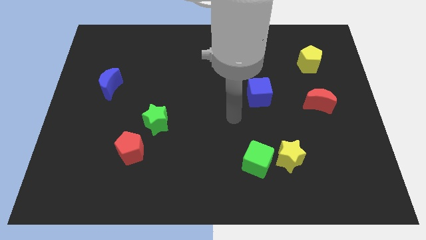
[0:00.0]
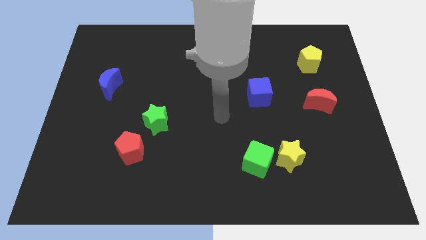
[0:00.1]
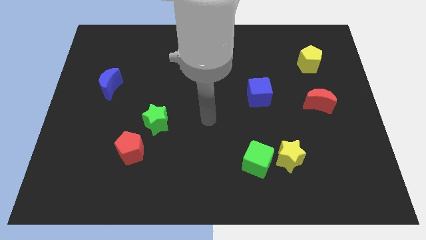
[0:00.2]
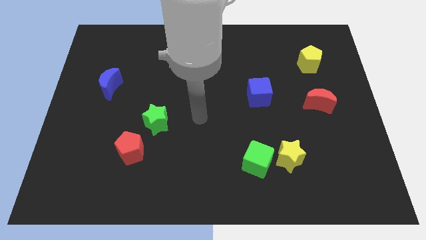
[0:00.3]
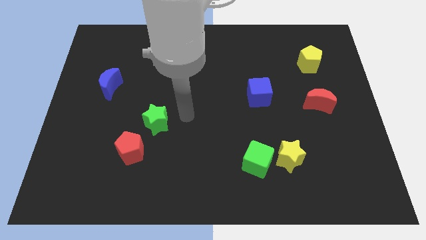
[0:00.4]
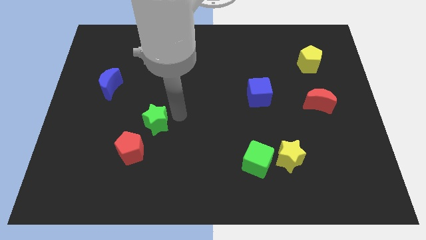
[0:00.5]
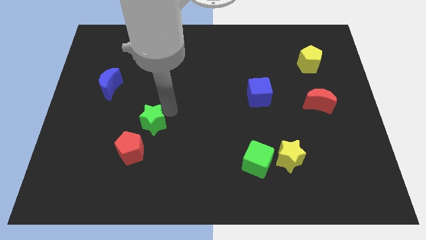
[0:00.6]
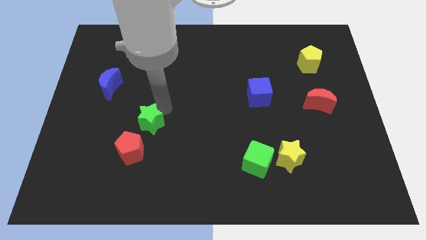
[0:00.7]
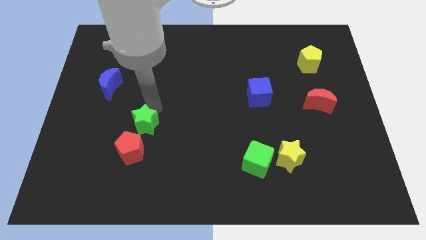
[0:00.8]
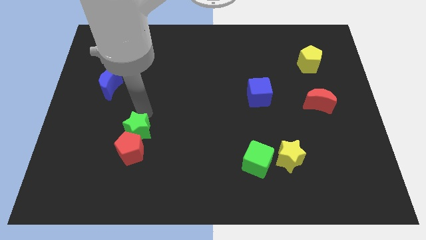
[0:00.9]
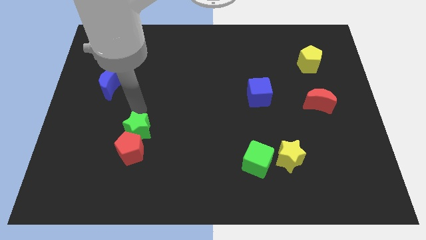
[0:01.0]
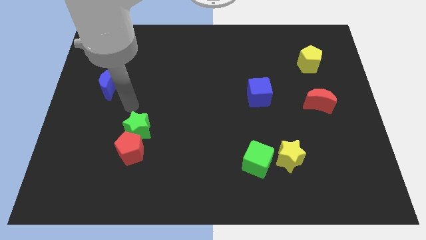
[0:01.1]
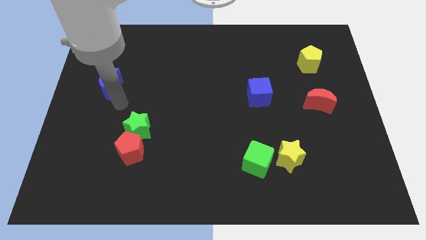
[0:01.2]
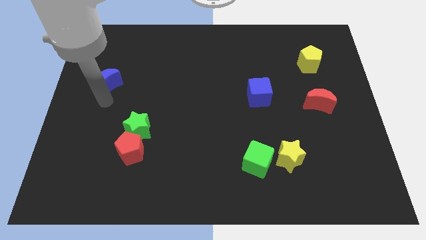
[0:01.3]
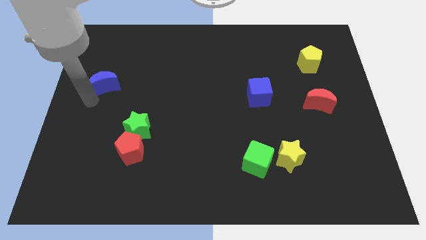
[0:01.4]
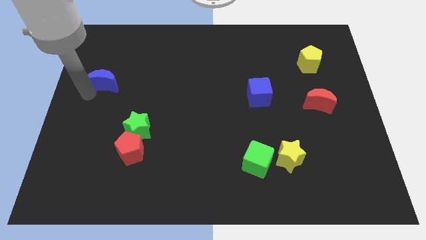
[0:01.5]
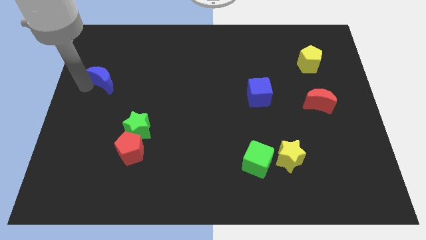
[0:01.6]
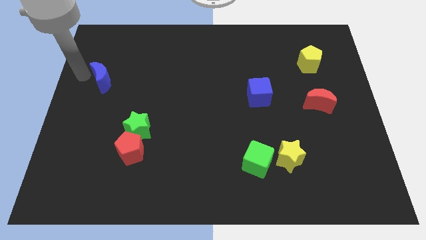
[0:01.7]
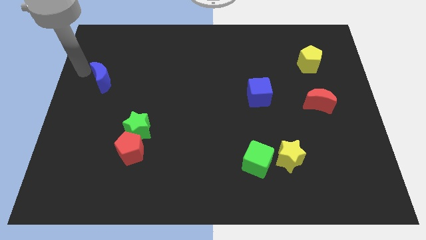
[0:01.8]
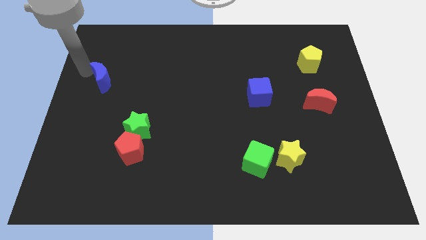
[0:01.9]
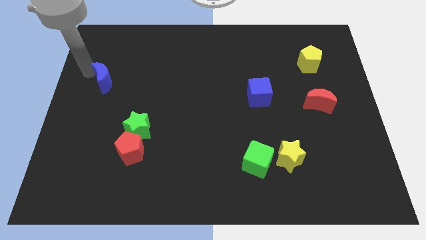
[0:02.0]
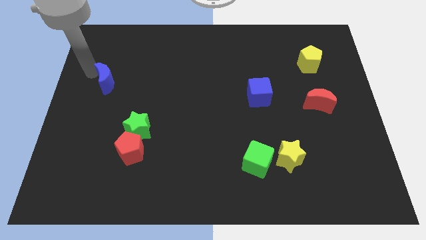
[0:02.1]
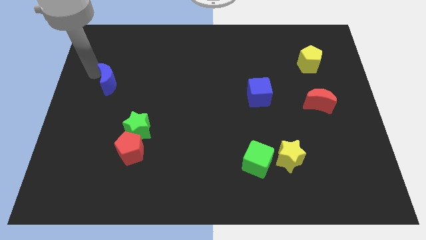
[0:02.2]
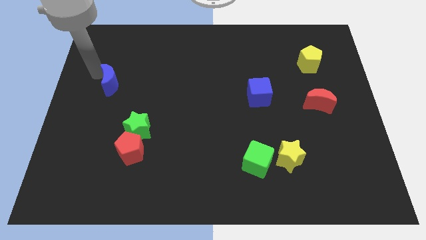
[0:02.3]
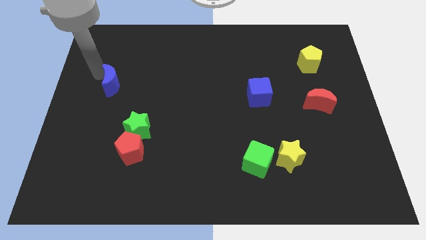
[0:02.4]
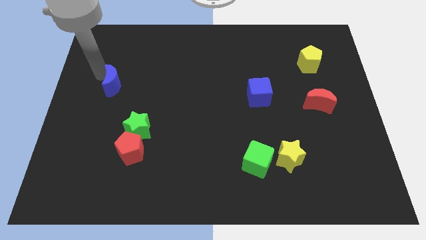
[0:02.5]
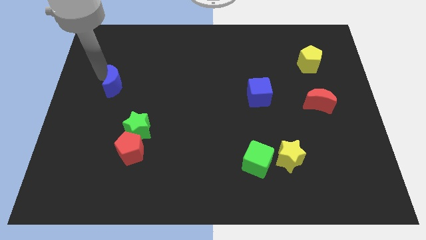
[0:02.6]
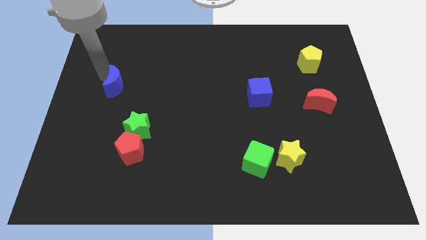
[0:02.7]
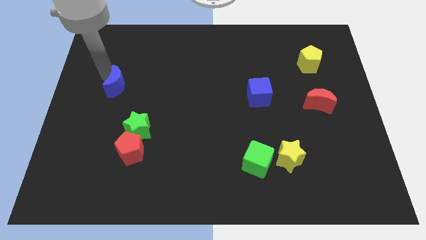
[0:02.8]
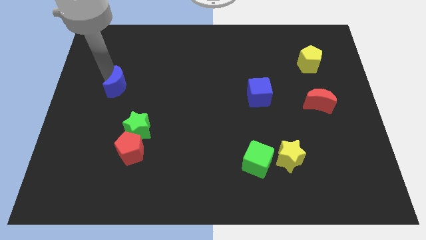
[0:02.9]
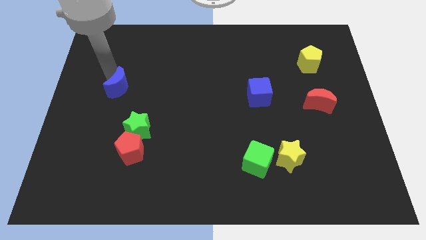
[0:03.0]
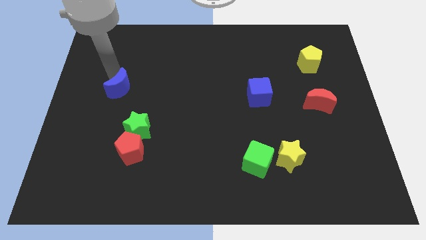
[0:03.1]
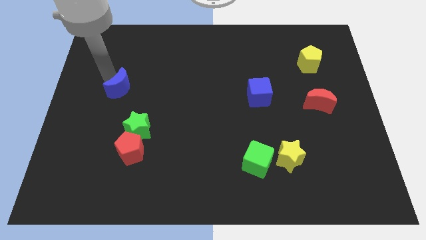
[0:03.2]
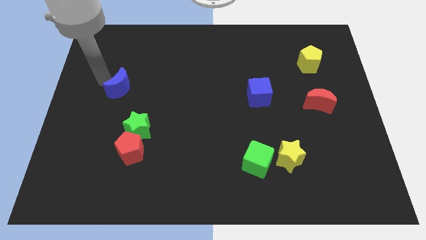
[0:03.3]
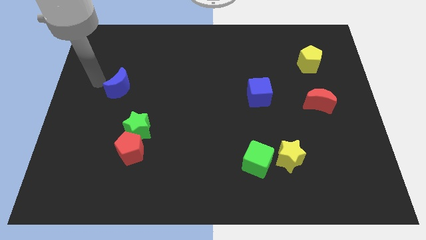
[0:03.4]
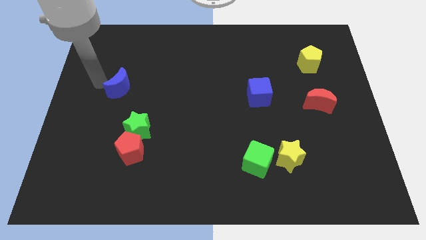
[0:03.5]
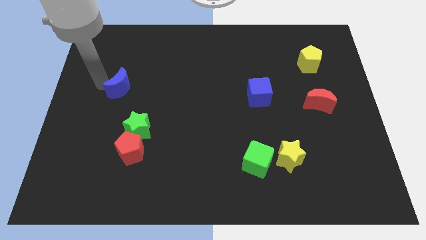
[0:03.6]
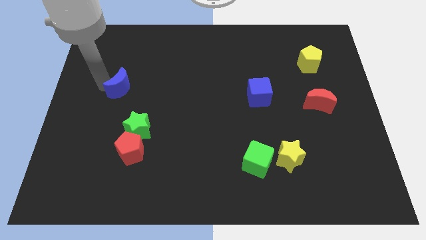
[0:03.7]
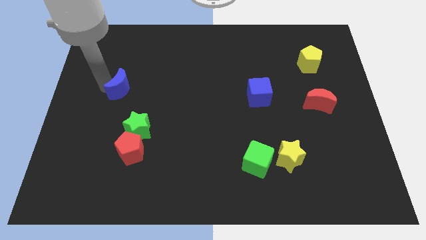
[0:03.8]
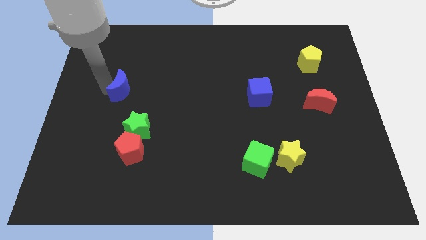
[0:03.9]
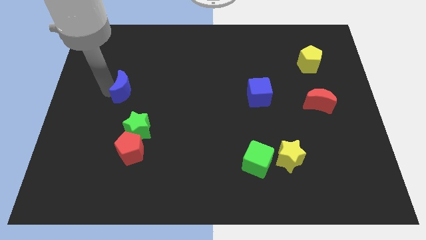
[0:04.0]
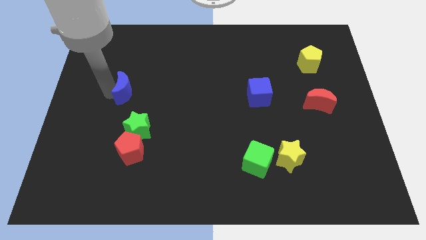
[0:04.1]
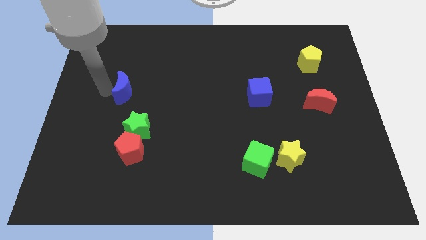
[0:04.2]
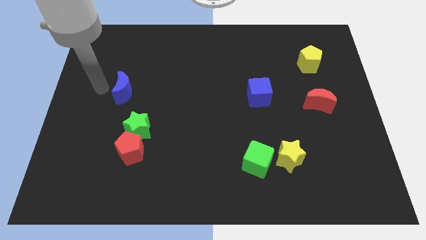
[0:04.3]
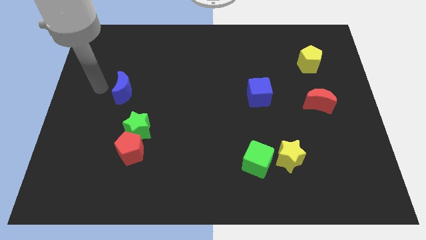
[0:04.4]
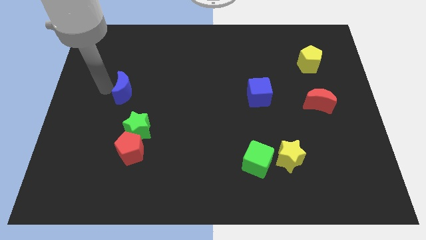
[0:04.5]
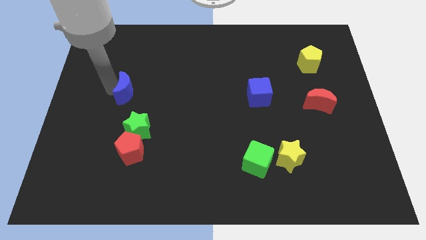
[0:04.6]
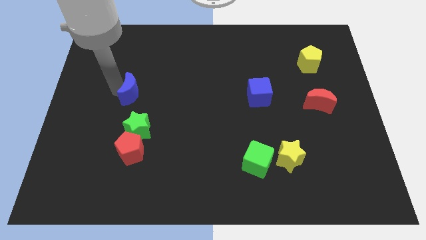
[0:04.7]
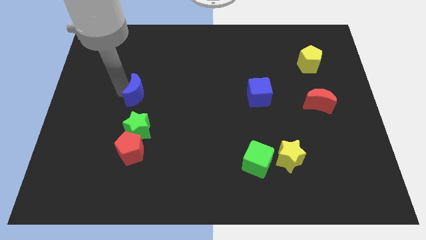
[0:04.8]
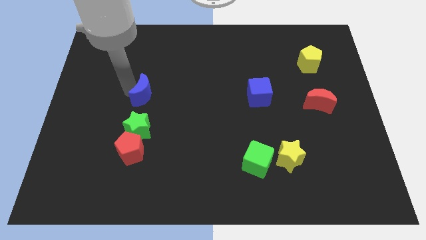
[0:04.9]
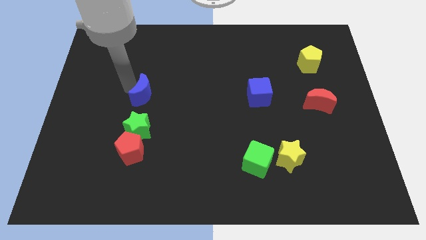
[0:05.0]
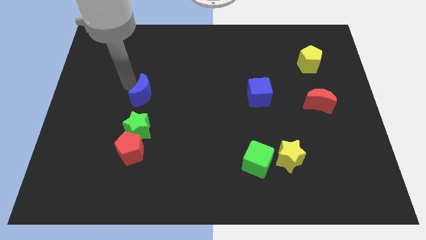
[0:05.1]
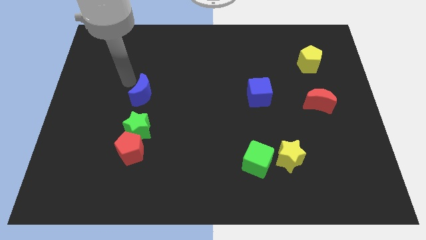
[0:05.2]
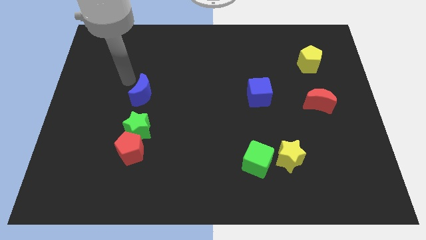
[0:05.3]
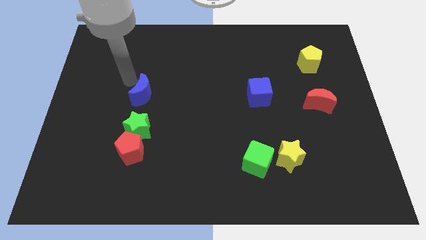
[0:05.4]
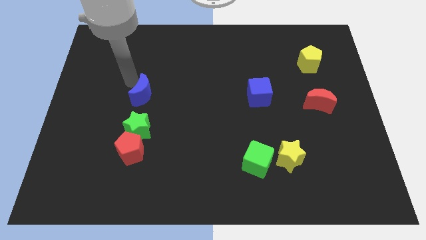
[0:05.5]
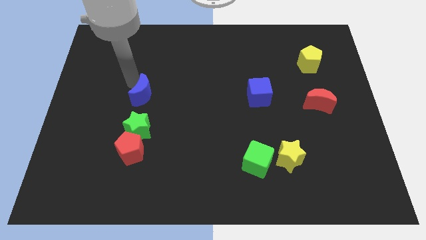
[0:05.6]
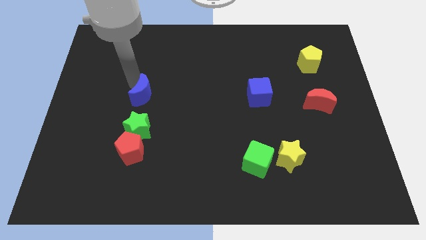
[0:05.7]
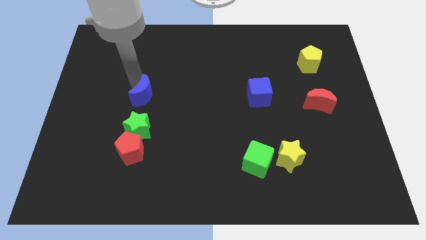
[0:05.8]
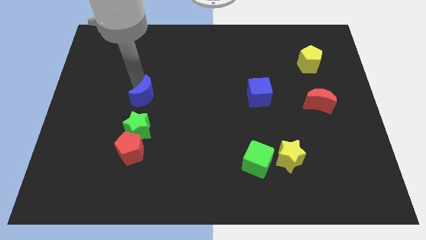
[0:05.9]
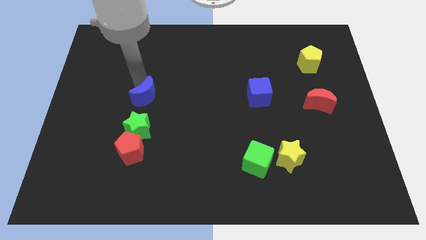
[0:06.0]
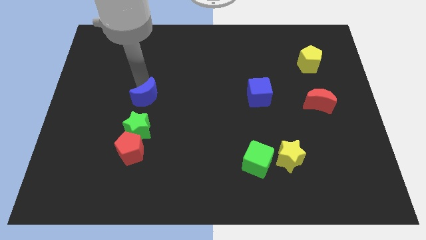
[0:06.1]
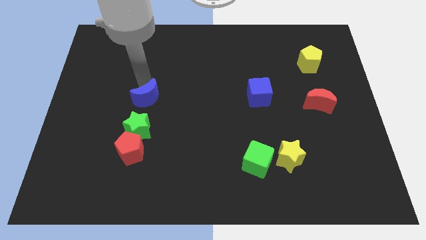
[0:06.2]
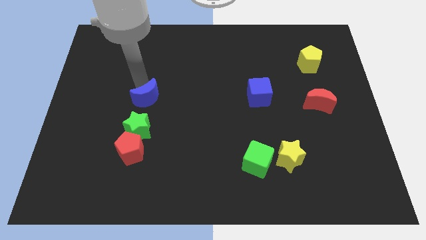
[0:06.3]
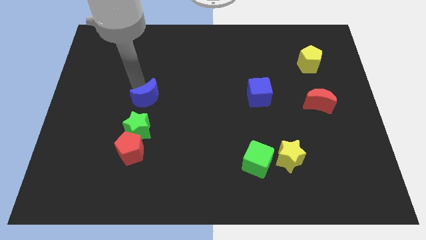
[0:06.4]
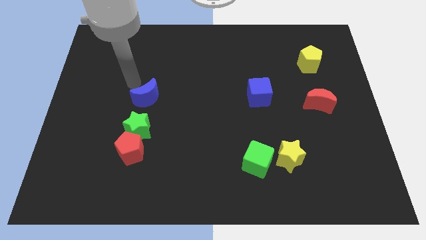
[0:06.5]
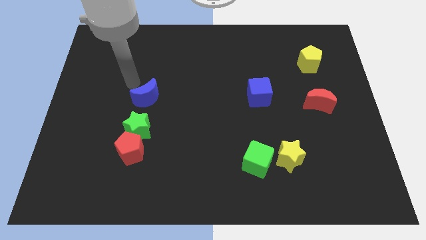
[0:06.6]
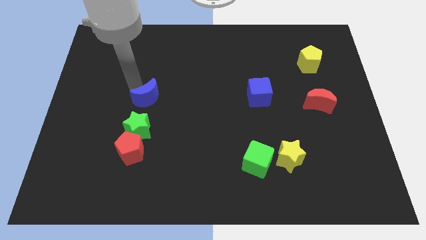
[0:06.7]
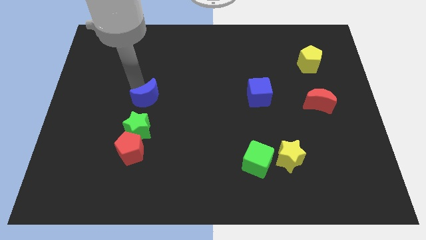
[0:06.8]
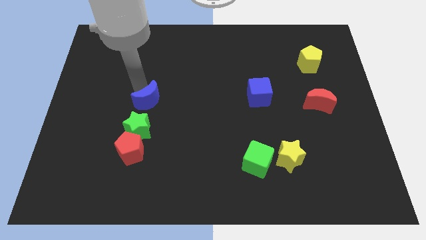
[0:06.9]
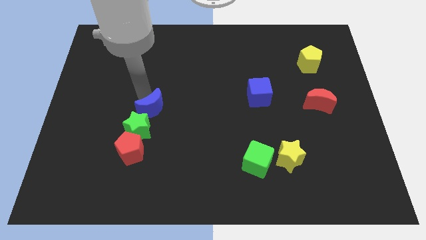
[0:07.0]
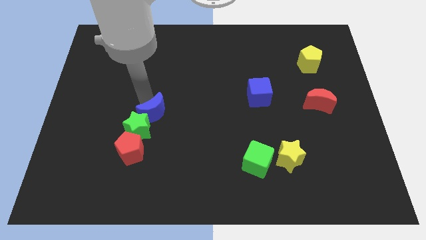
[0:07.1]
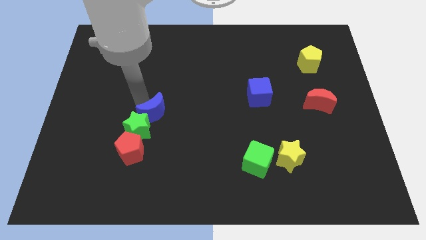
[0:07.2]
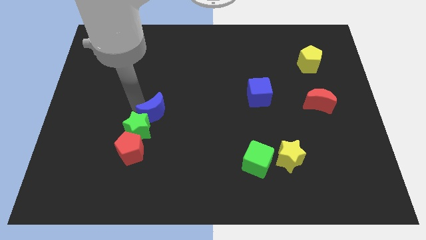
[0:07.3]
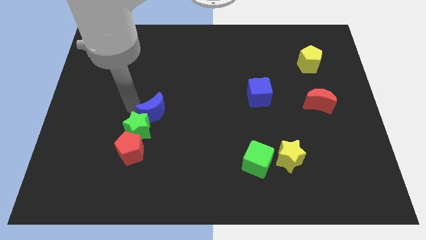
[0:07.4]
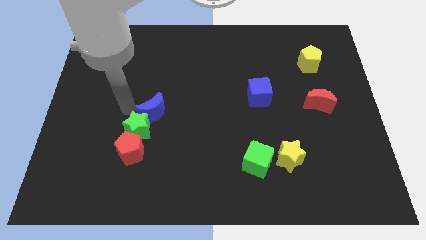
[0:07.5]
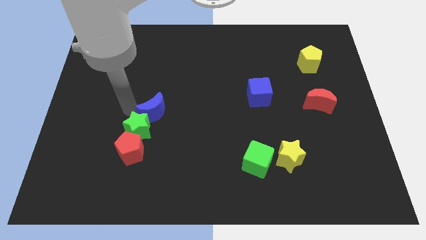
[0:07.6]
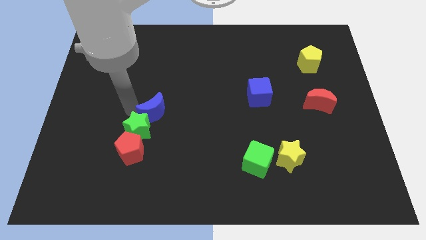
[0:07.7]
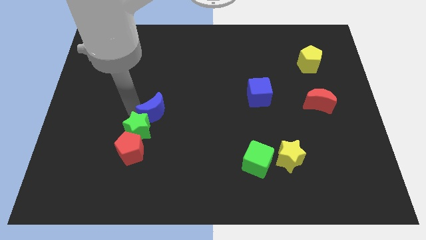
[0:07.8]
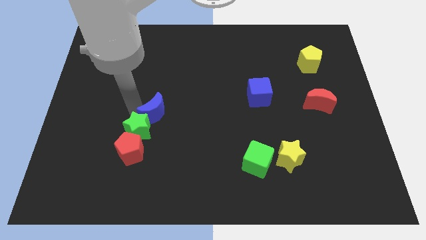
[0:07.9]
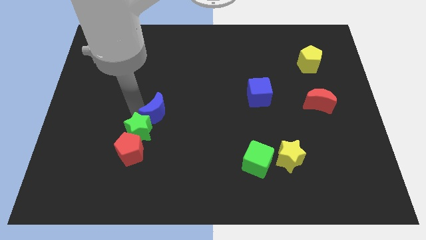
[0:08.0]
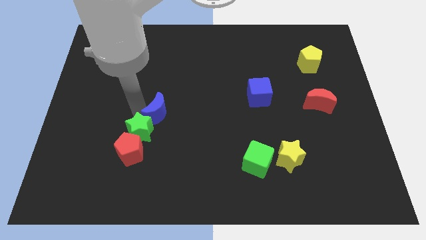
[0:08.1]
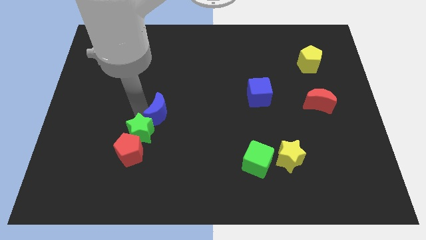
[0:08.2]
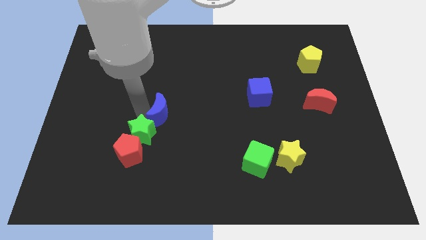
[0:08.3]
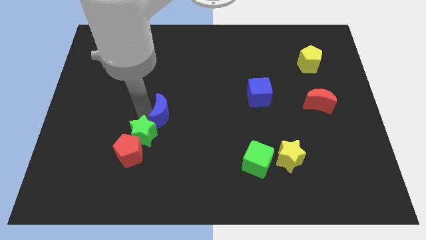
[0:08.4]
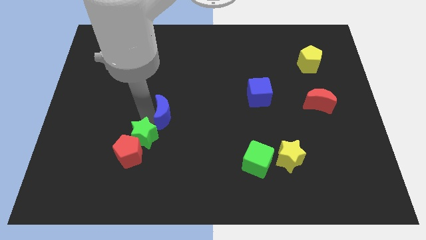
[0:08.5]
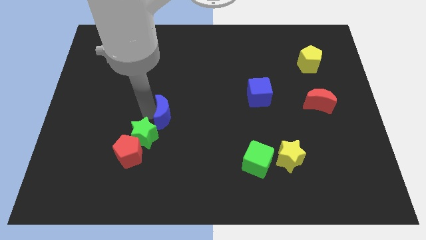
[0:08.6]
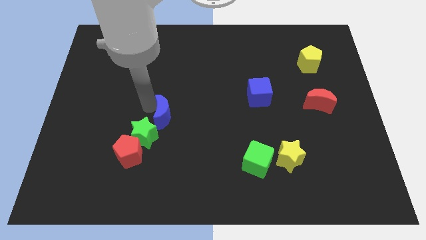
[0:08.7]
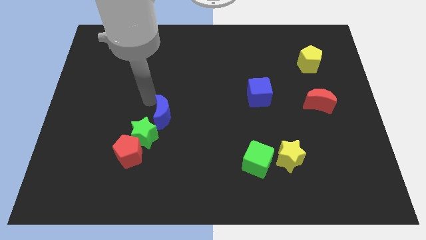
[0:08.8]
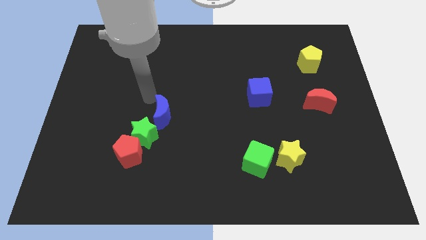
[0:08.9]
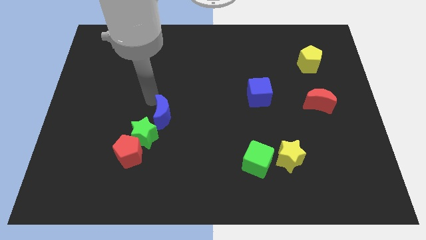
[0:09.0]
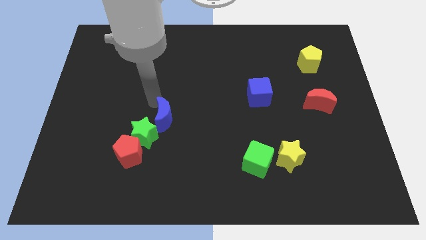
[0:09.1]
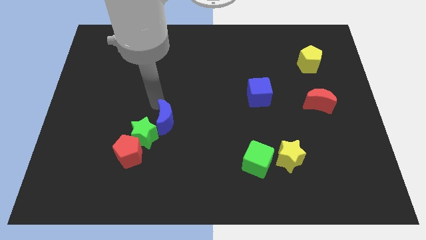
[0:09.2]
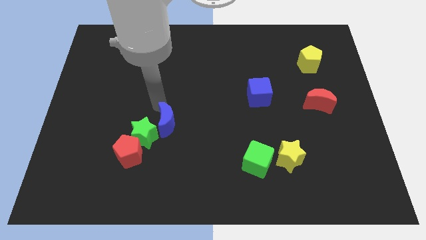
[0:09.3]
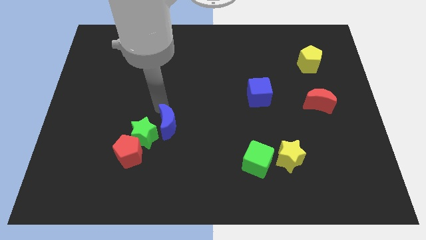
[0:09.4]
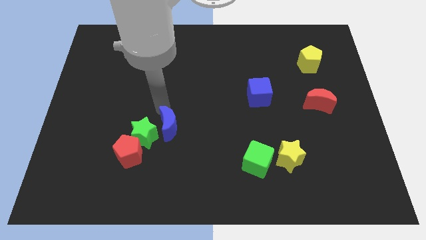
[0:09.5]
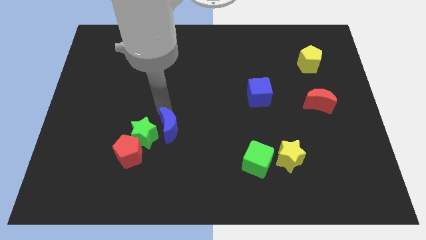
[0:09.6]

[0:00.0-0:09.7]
move the blue moon down and right diagonally
